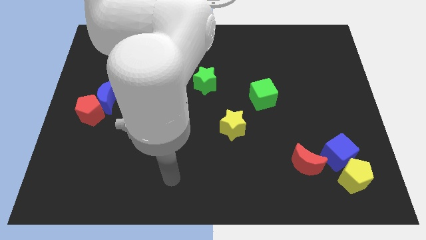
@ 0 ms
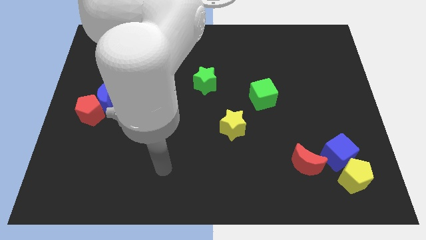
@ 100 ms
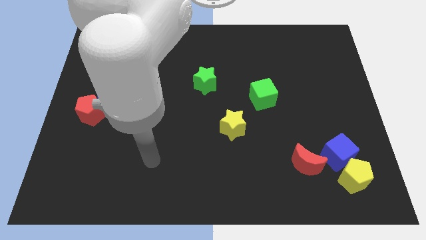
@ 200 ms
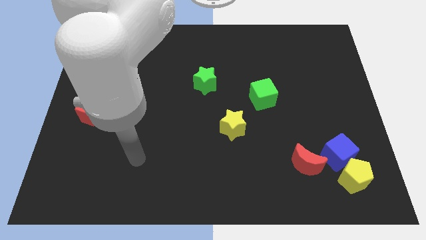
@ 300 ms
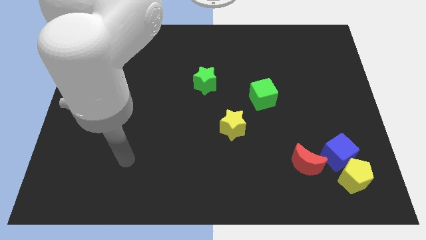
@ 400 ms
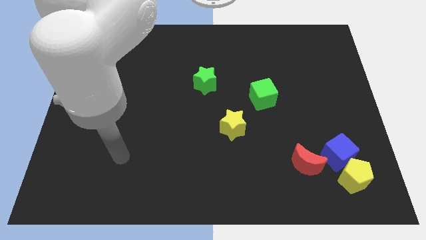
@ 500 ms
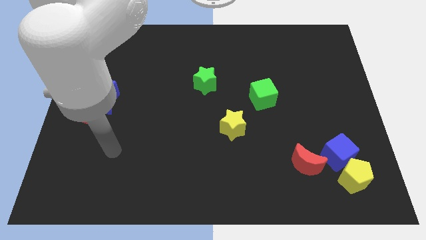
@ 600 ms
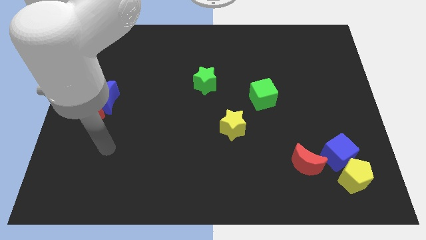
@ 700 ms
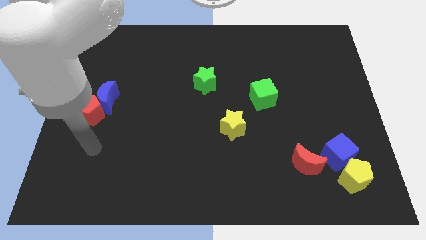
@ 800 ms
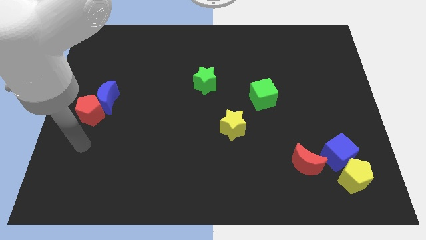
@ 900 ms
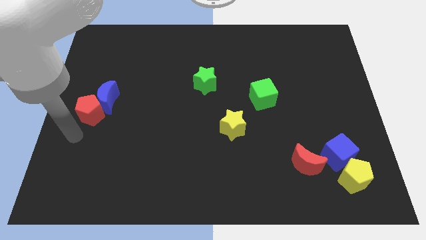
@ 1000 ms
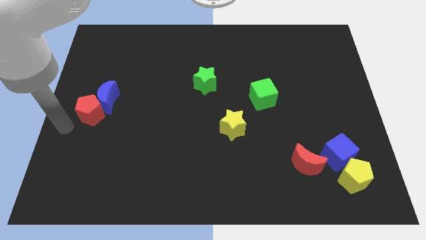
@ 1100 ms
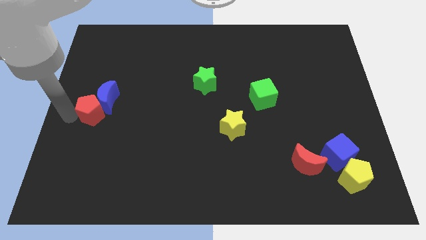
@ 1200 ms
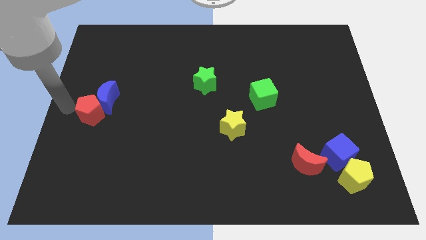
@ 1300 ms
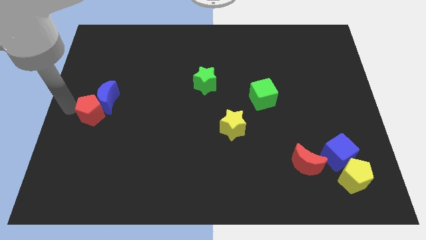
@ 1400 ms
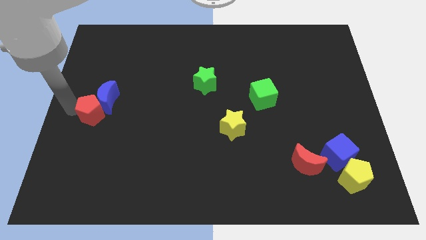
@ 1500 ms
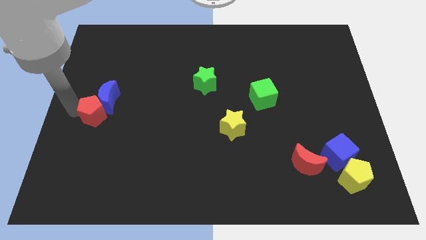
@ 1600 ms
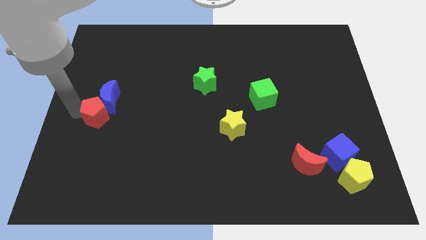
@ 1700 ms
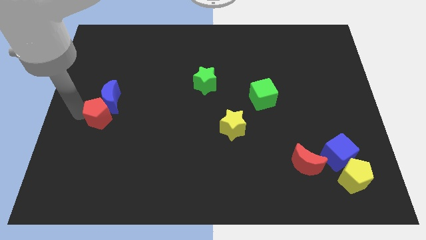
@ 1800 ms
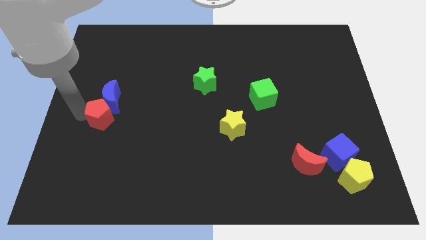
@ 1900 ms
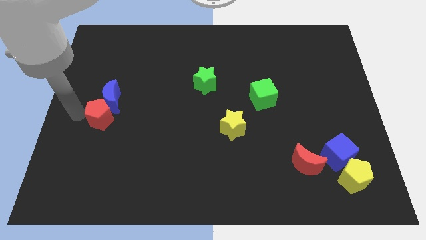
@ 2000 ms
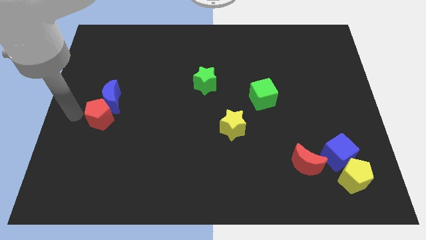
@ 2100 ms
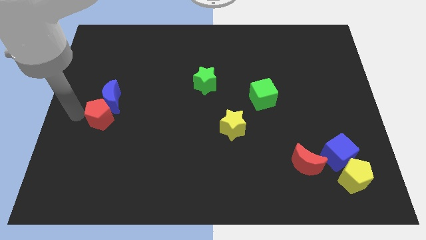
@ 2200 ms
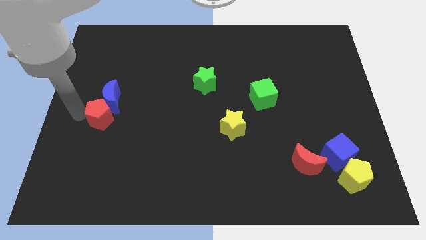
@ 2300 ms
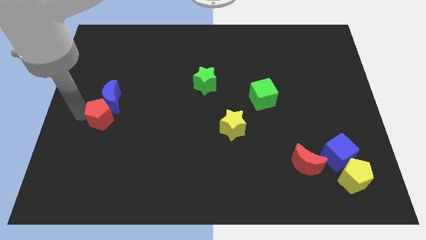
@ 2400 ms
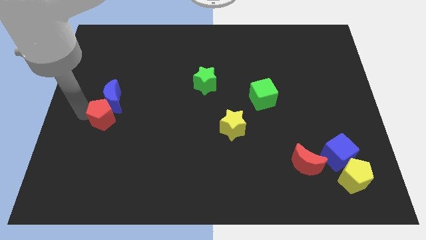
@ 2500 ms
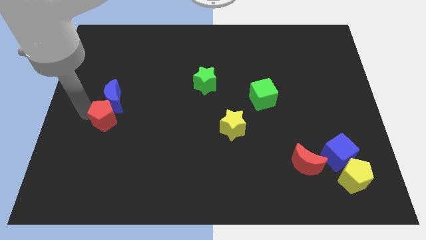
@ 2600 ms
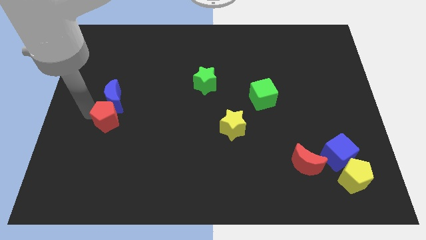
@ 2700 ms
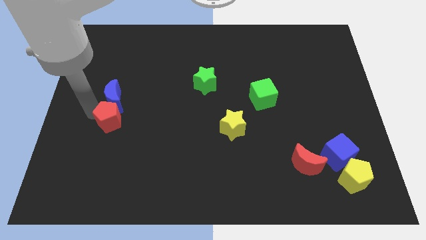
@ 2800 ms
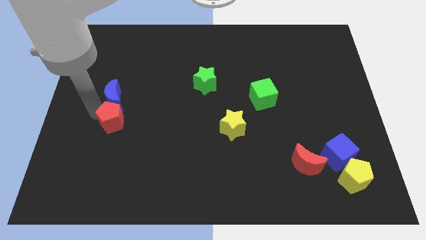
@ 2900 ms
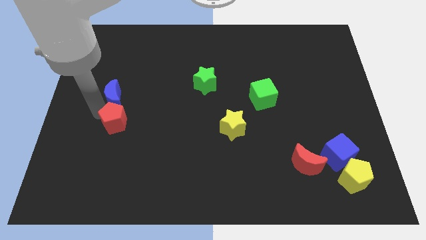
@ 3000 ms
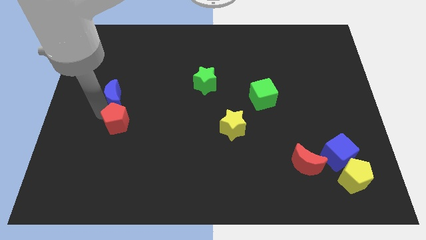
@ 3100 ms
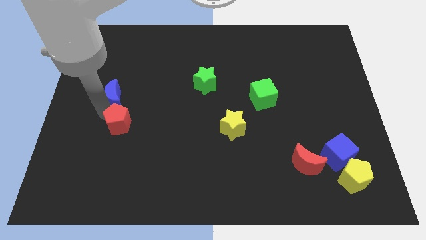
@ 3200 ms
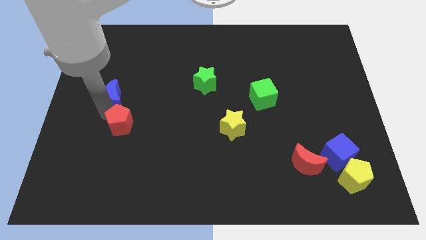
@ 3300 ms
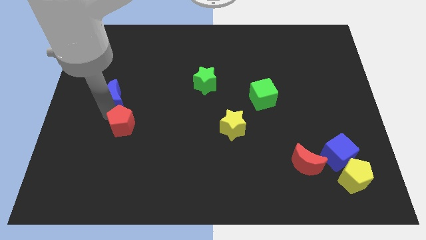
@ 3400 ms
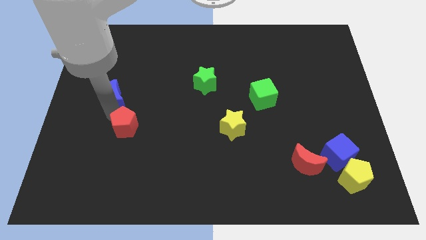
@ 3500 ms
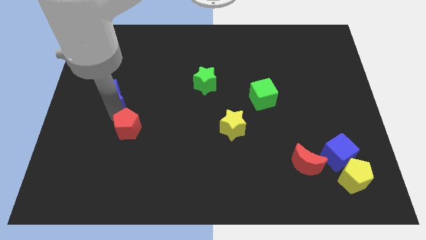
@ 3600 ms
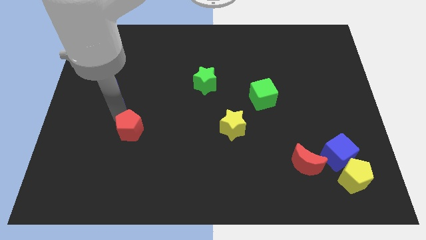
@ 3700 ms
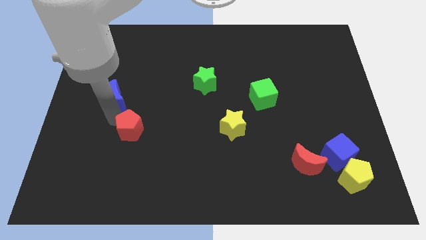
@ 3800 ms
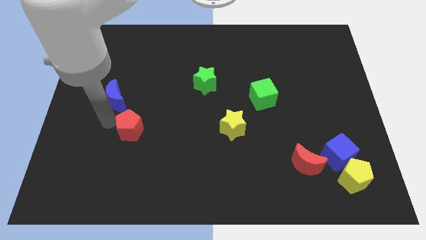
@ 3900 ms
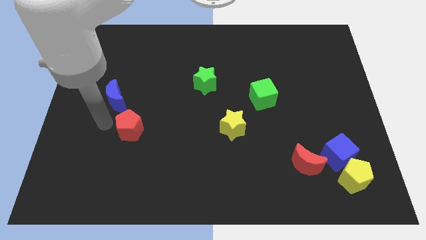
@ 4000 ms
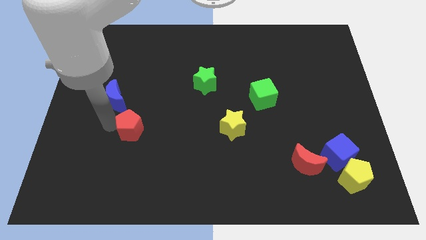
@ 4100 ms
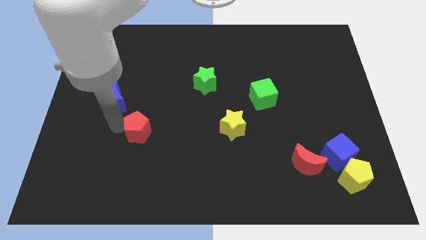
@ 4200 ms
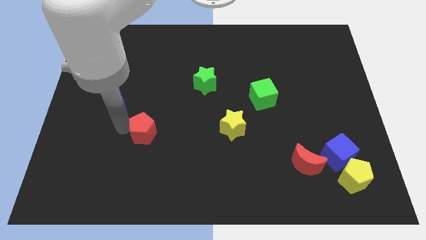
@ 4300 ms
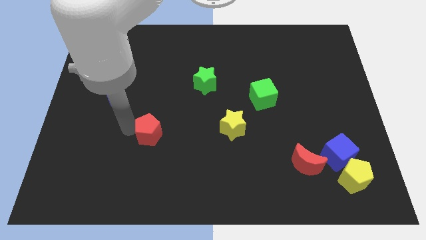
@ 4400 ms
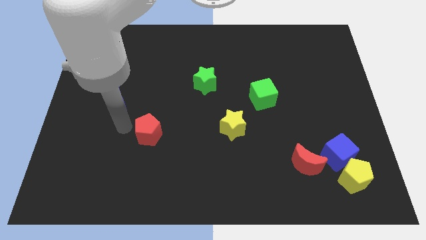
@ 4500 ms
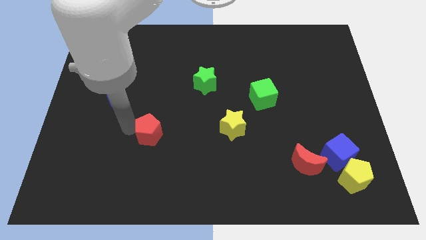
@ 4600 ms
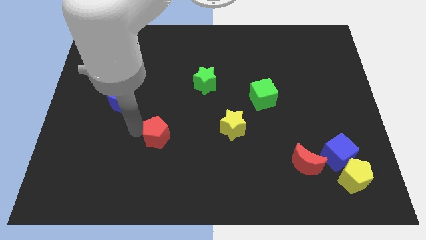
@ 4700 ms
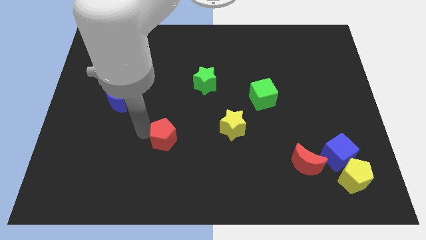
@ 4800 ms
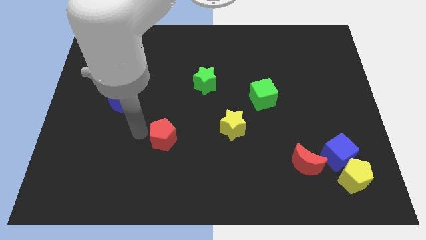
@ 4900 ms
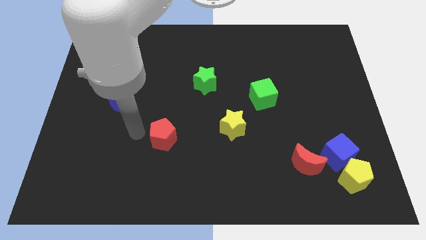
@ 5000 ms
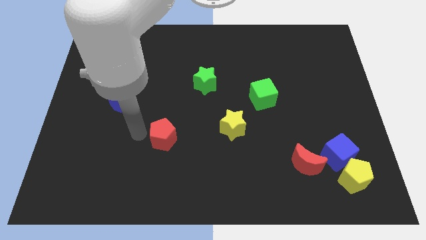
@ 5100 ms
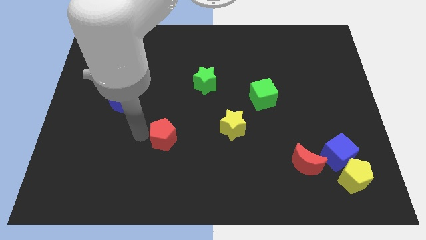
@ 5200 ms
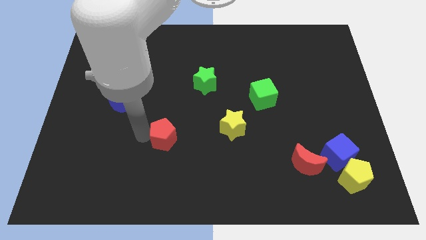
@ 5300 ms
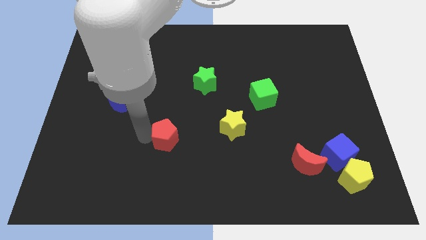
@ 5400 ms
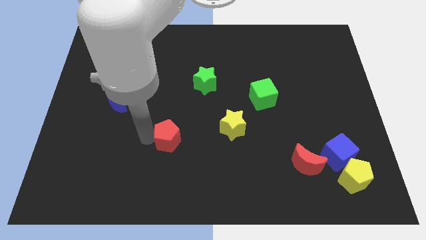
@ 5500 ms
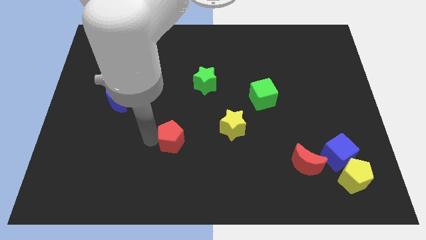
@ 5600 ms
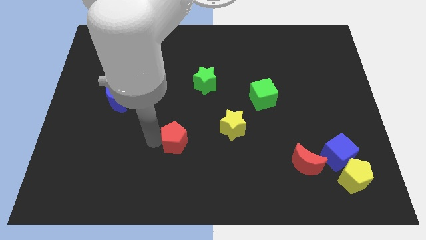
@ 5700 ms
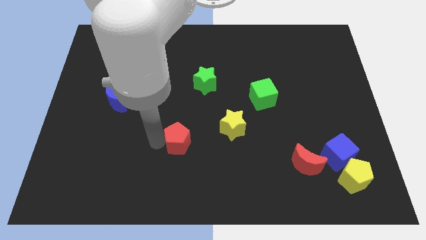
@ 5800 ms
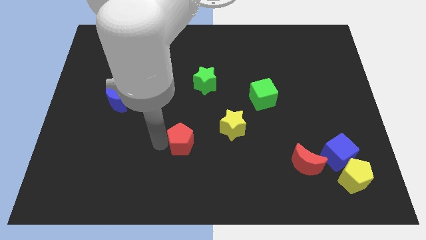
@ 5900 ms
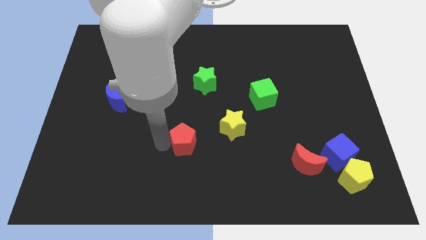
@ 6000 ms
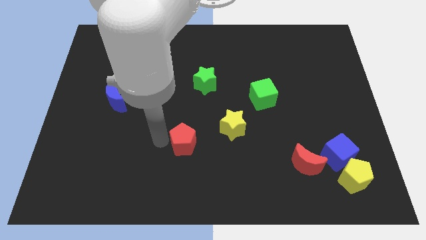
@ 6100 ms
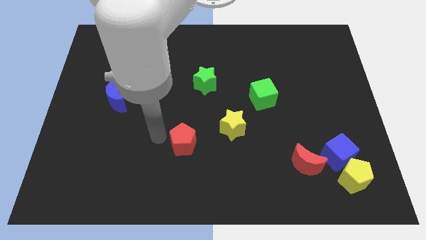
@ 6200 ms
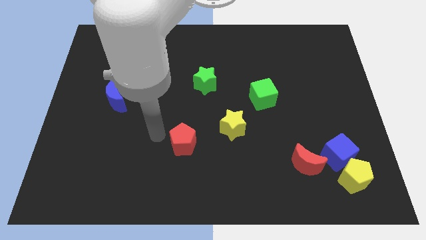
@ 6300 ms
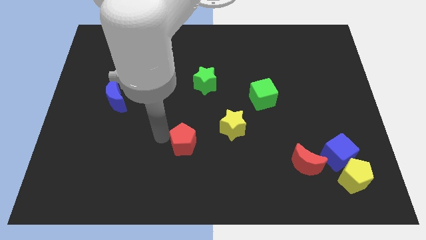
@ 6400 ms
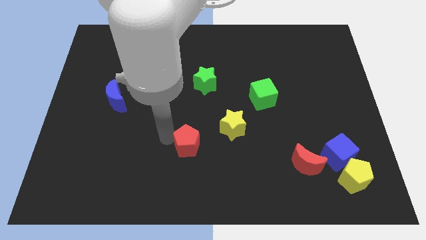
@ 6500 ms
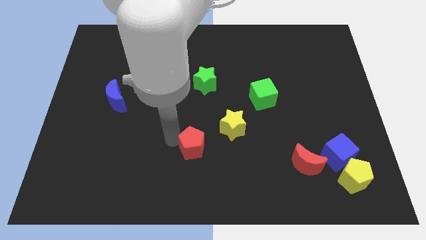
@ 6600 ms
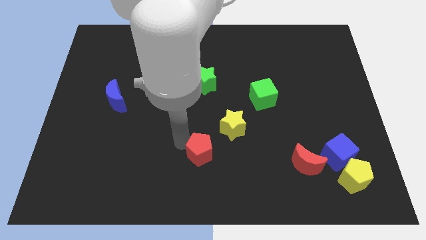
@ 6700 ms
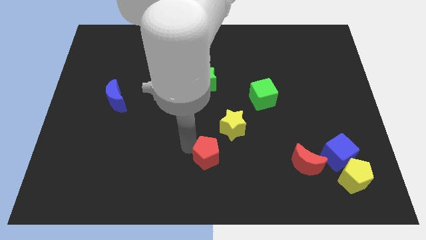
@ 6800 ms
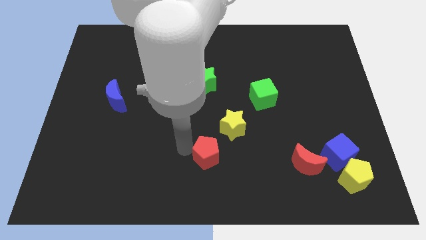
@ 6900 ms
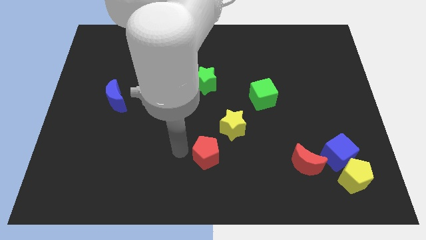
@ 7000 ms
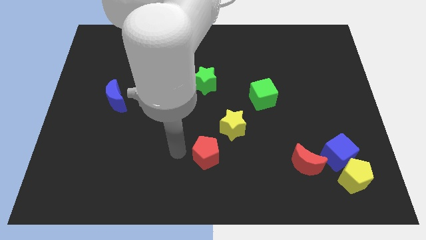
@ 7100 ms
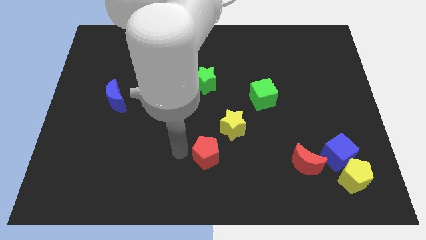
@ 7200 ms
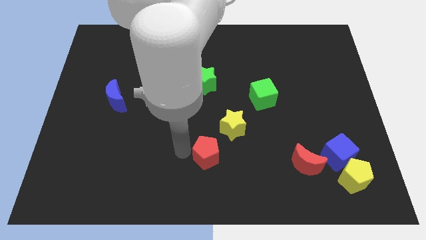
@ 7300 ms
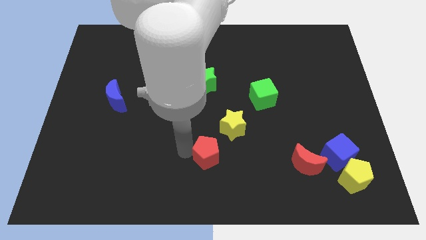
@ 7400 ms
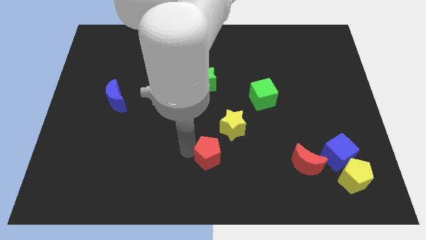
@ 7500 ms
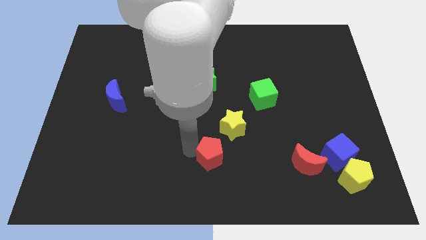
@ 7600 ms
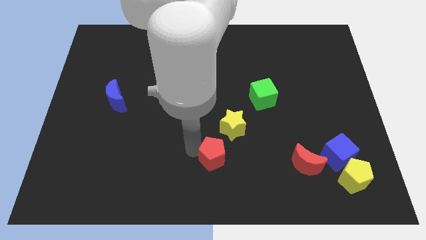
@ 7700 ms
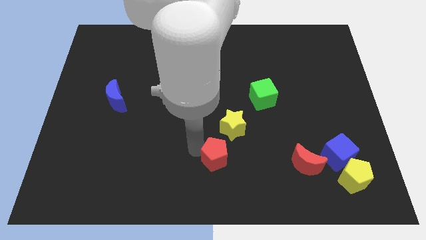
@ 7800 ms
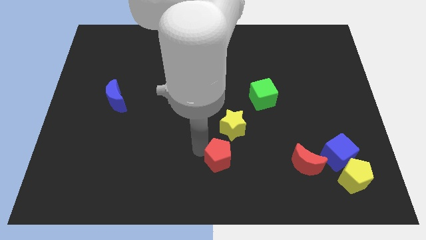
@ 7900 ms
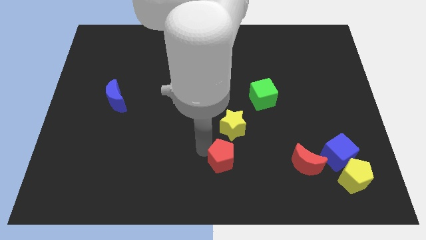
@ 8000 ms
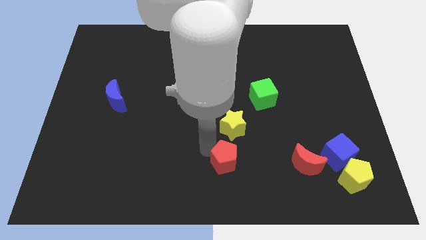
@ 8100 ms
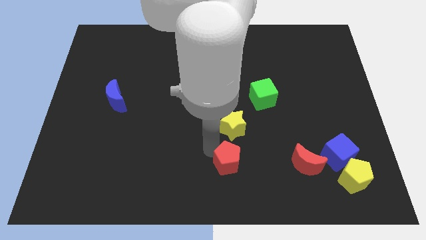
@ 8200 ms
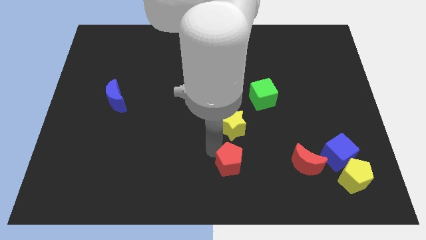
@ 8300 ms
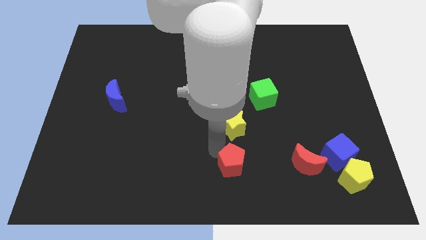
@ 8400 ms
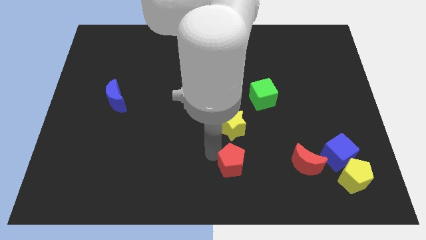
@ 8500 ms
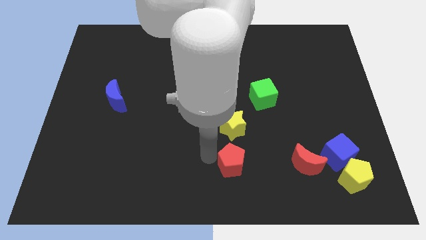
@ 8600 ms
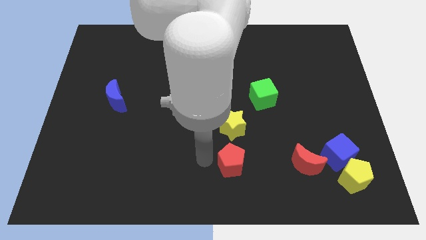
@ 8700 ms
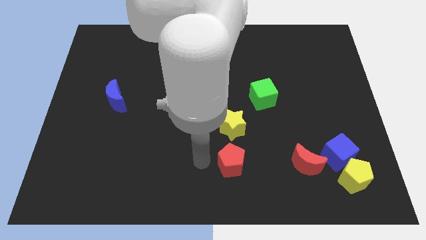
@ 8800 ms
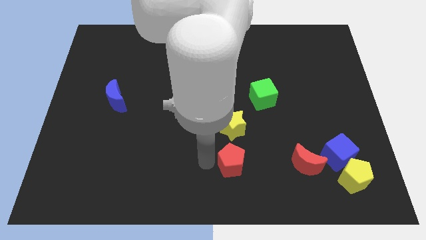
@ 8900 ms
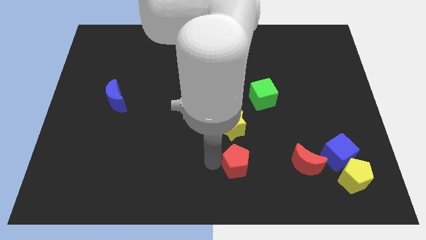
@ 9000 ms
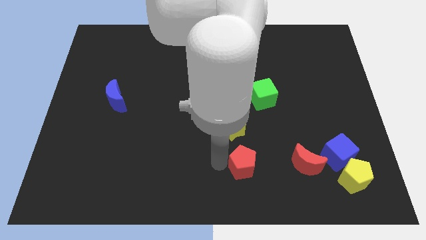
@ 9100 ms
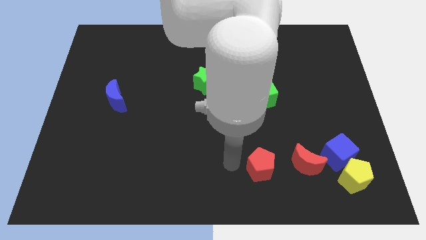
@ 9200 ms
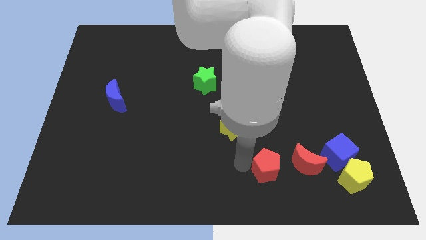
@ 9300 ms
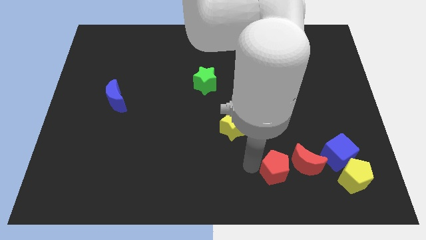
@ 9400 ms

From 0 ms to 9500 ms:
move the red pentagon just left of the yellow pentagon
